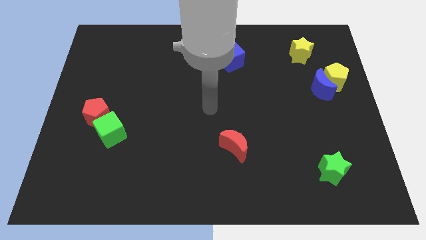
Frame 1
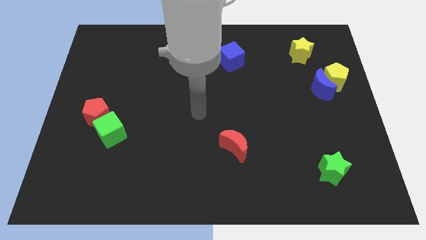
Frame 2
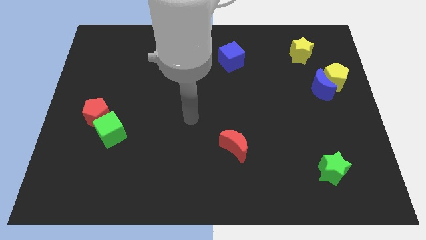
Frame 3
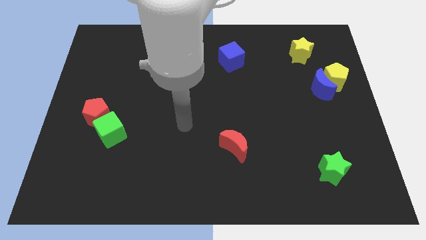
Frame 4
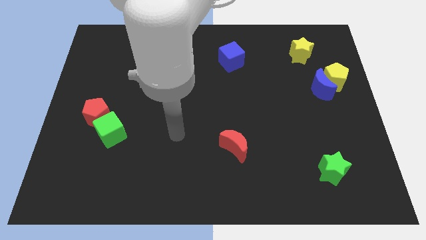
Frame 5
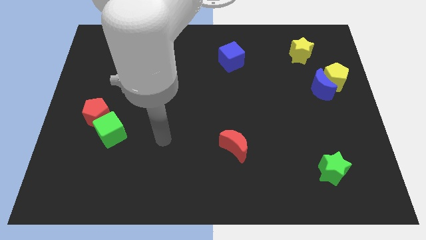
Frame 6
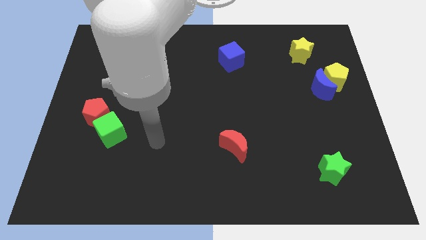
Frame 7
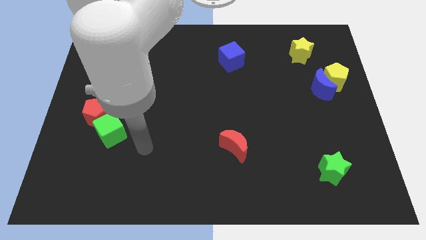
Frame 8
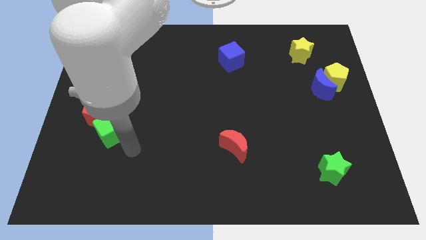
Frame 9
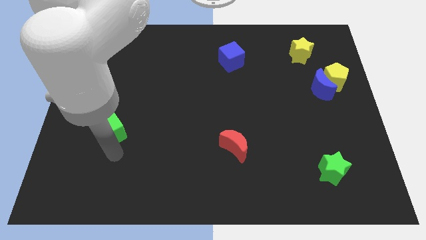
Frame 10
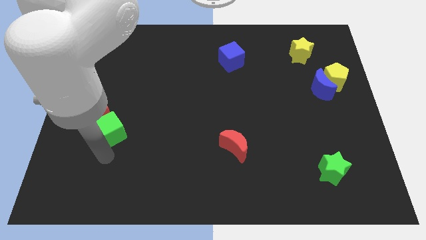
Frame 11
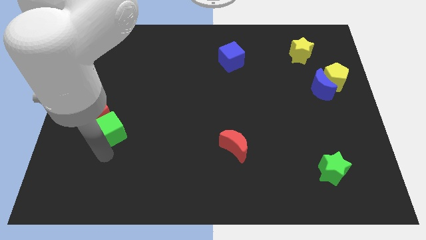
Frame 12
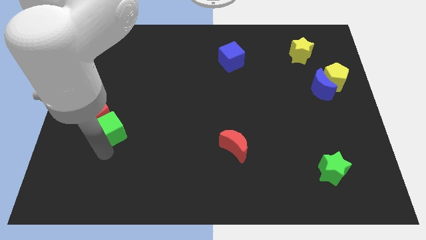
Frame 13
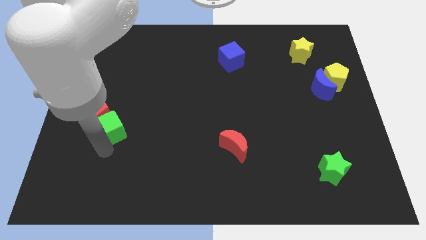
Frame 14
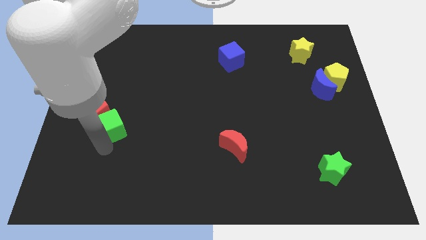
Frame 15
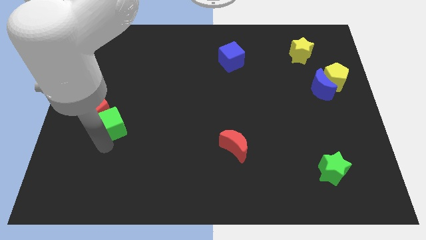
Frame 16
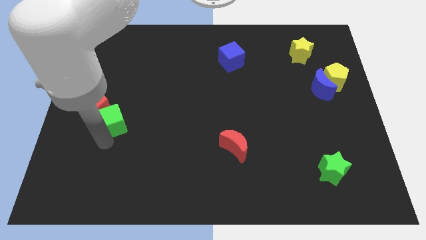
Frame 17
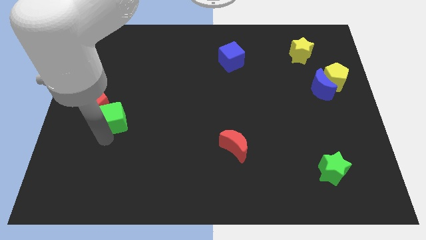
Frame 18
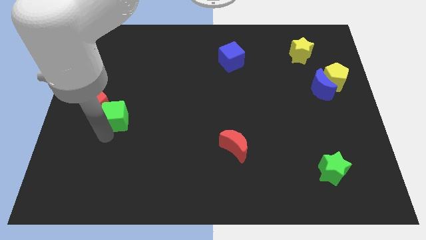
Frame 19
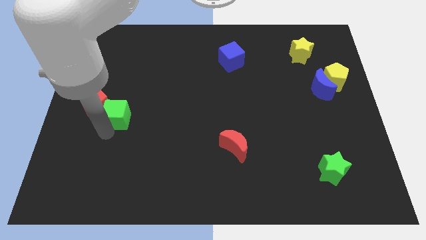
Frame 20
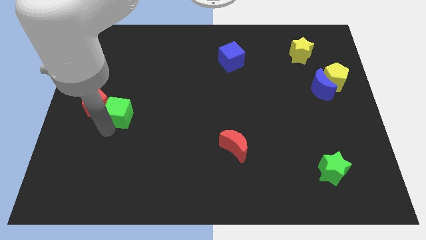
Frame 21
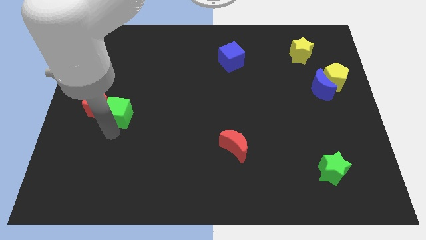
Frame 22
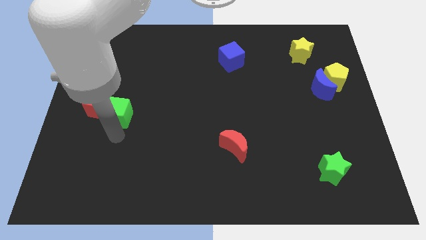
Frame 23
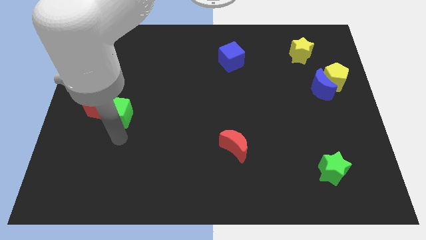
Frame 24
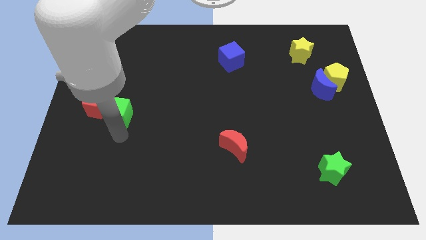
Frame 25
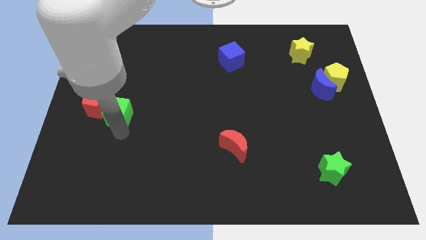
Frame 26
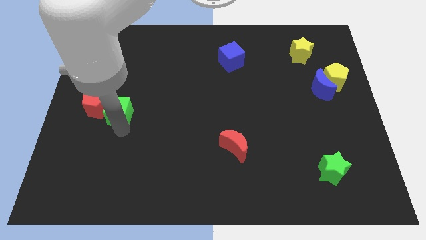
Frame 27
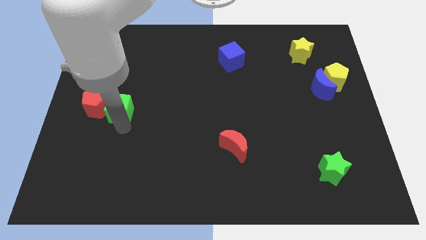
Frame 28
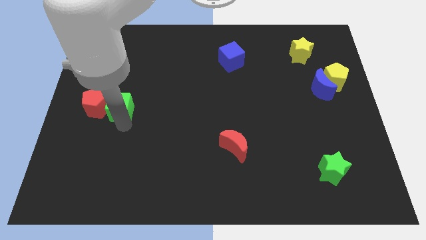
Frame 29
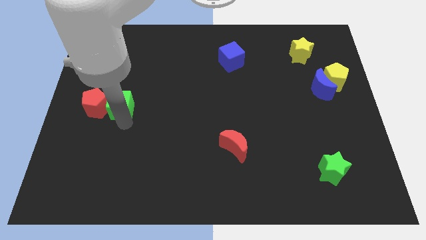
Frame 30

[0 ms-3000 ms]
slightly slide the green cube up

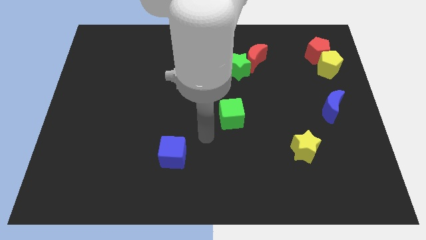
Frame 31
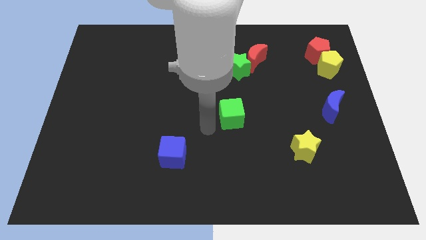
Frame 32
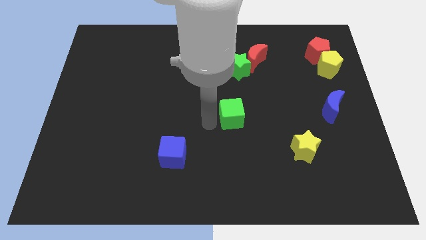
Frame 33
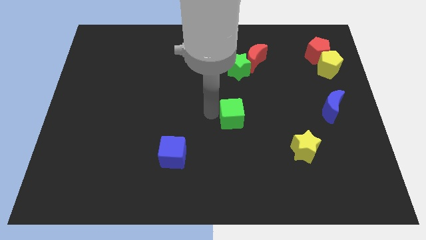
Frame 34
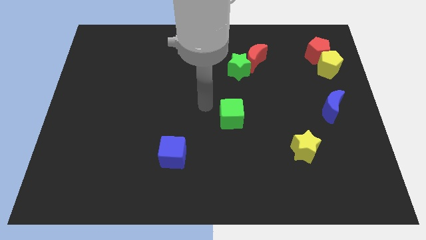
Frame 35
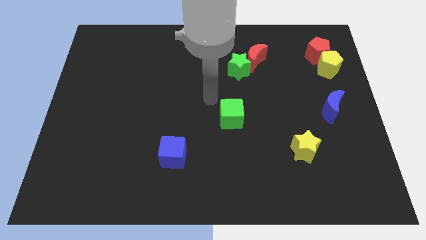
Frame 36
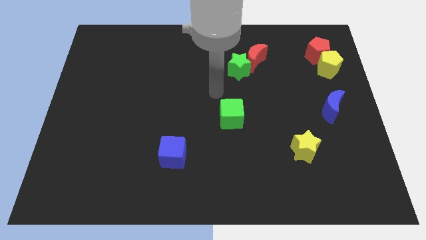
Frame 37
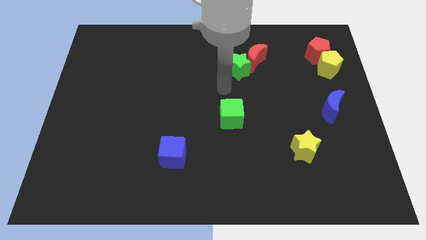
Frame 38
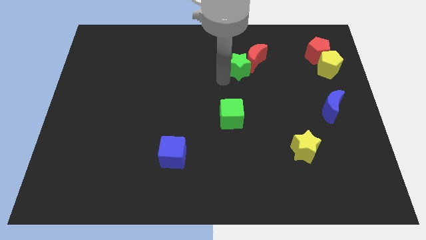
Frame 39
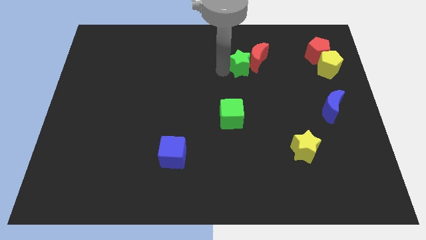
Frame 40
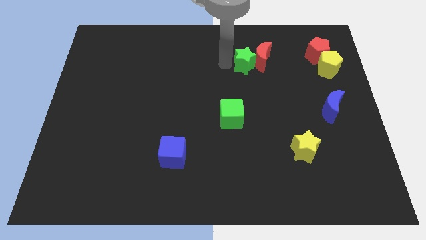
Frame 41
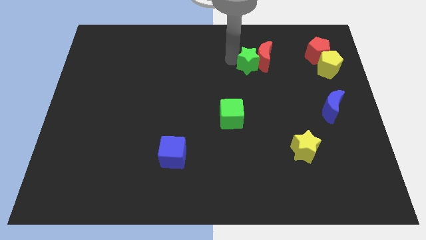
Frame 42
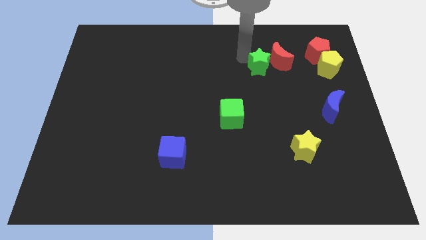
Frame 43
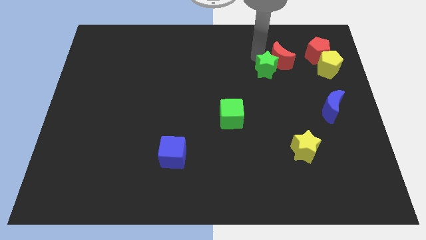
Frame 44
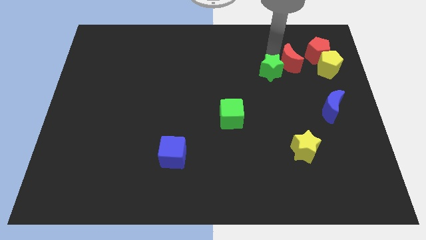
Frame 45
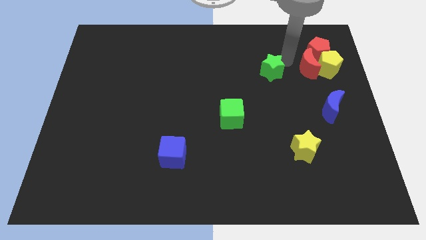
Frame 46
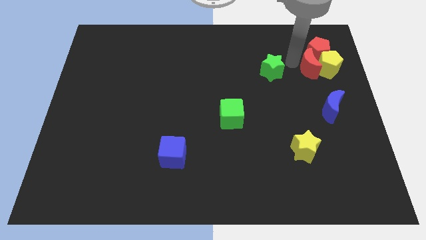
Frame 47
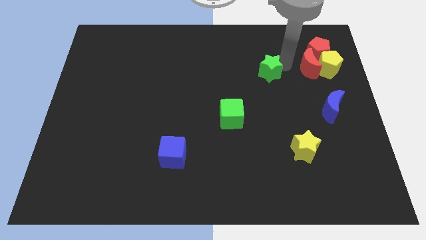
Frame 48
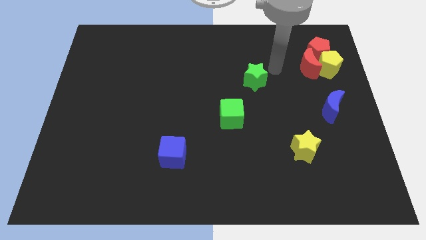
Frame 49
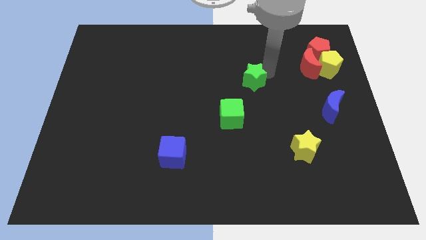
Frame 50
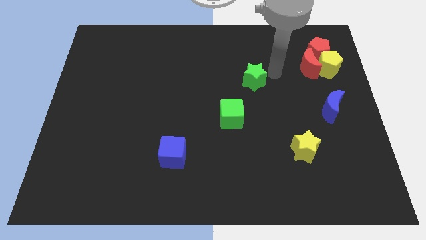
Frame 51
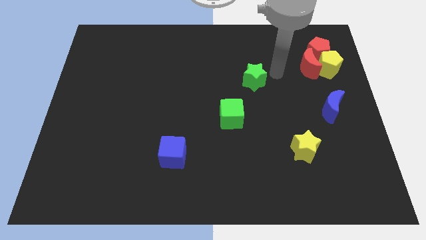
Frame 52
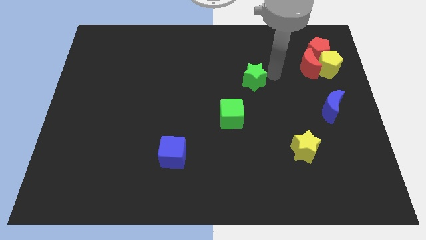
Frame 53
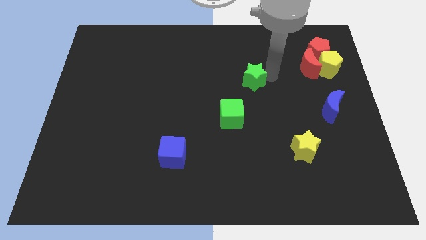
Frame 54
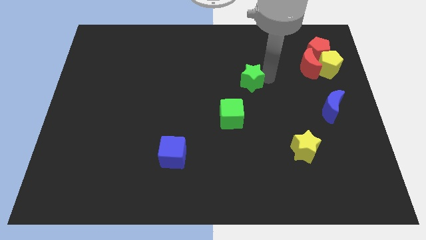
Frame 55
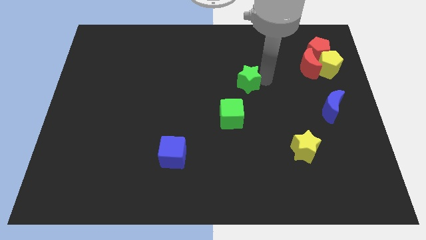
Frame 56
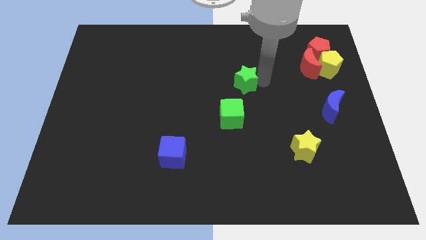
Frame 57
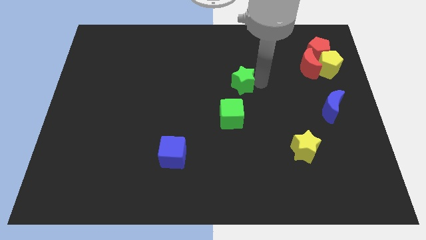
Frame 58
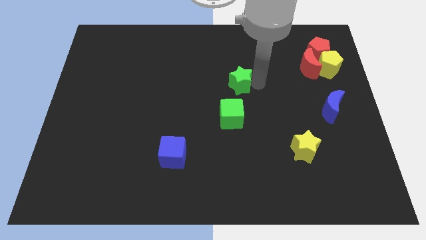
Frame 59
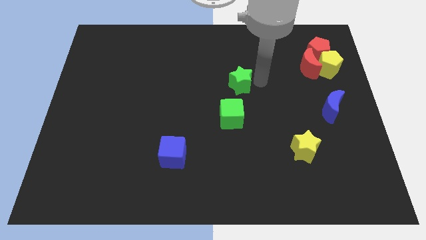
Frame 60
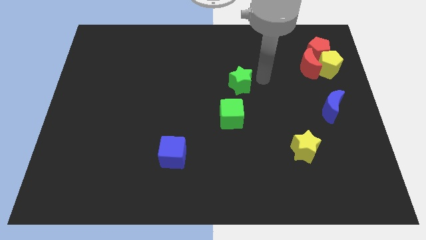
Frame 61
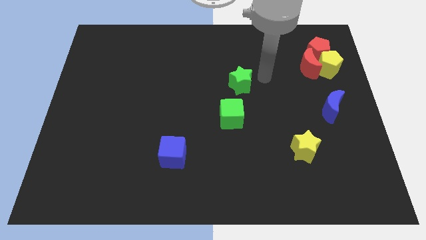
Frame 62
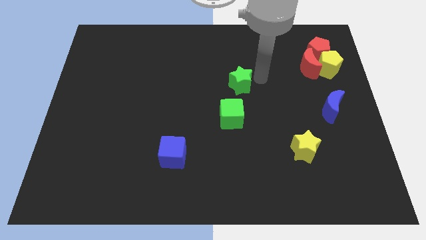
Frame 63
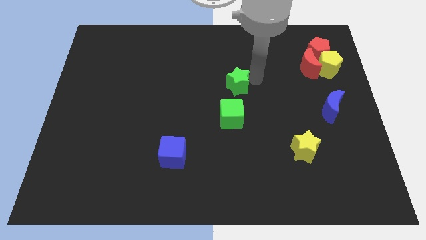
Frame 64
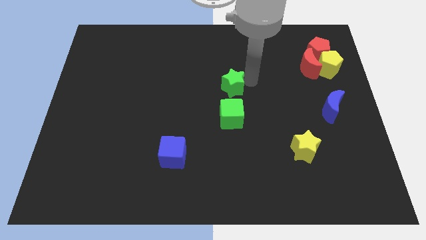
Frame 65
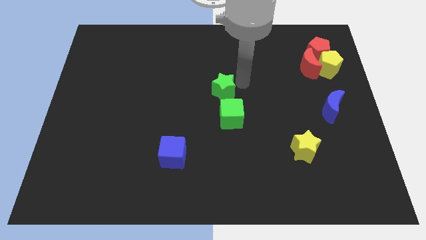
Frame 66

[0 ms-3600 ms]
push the green star diagonally down and left a little bit

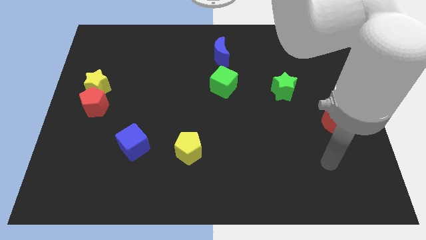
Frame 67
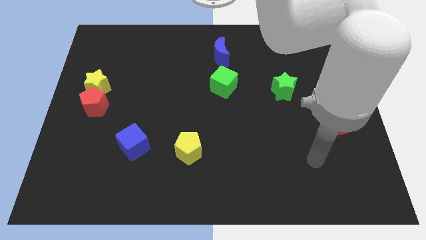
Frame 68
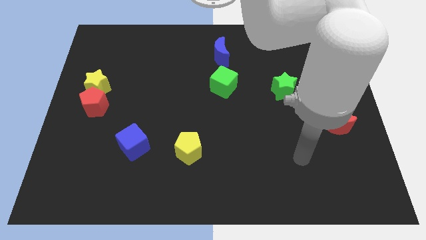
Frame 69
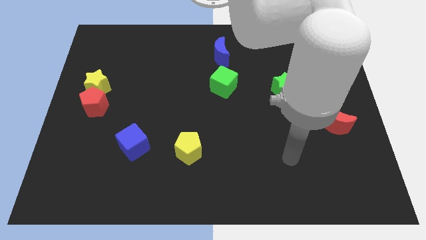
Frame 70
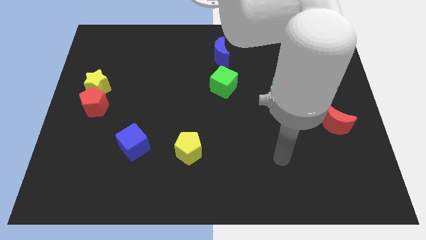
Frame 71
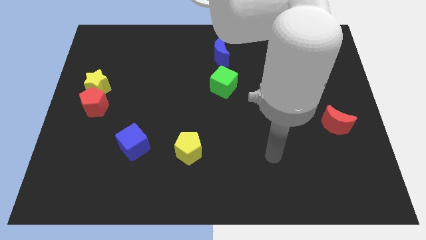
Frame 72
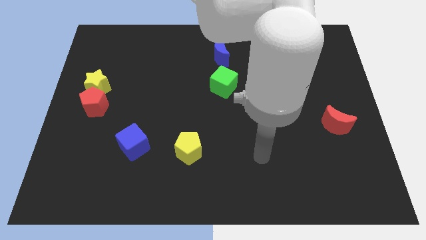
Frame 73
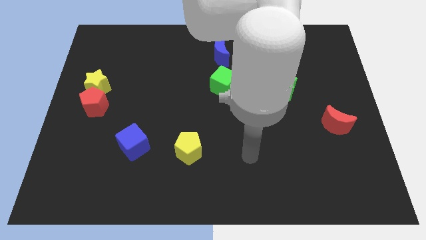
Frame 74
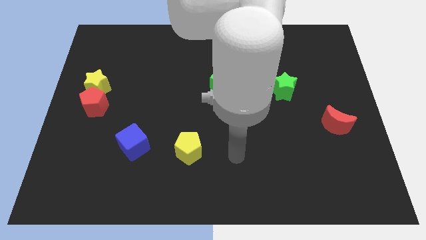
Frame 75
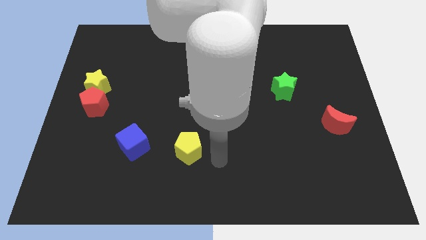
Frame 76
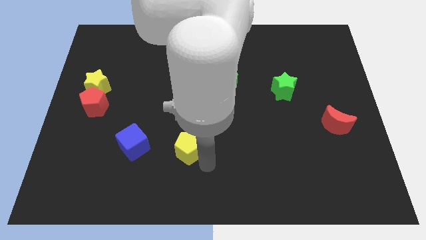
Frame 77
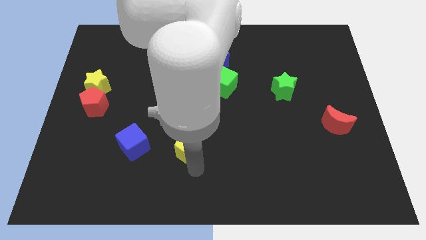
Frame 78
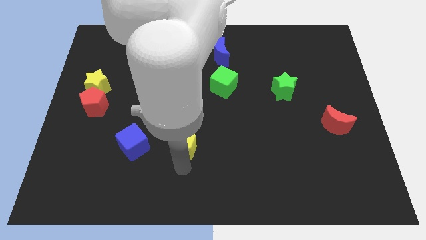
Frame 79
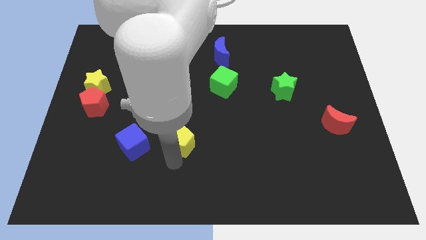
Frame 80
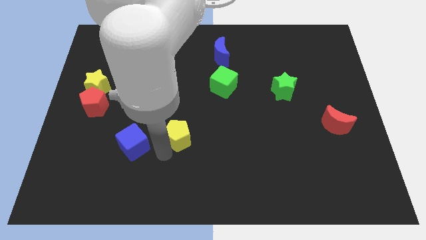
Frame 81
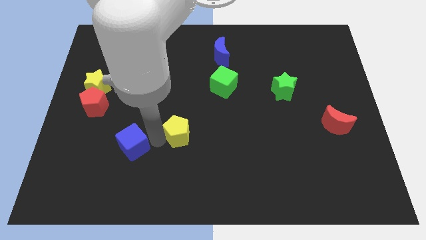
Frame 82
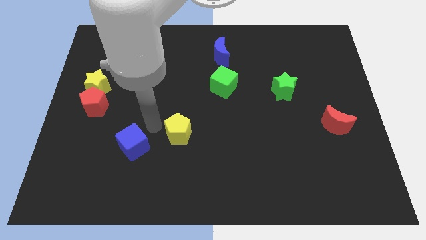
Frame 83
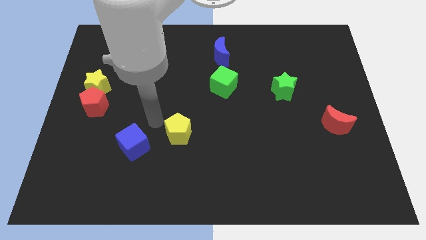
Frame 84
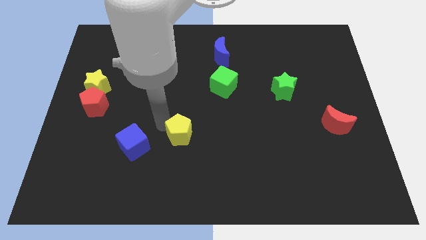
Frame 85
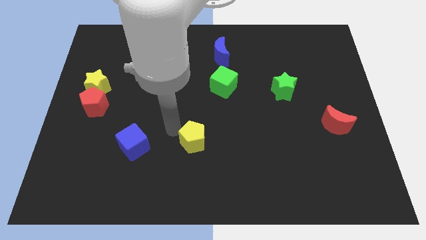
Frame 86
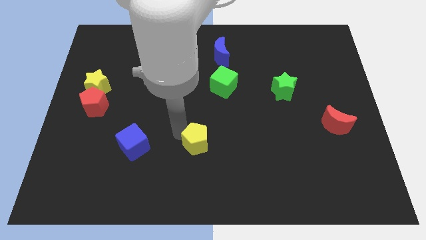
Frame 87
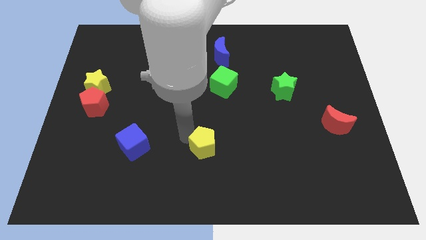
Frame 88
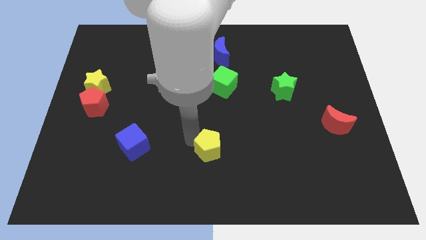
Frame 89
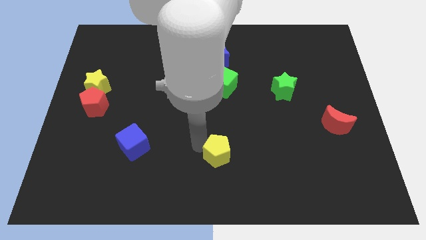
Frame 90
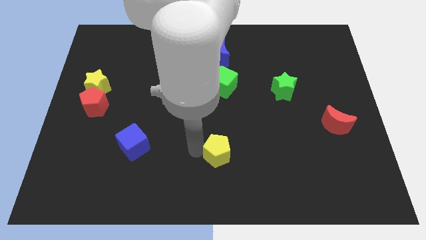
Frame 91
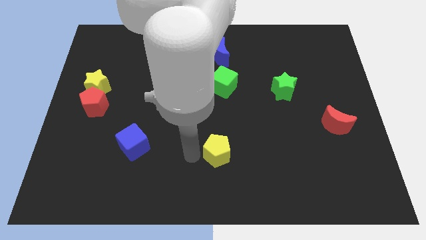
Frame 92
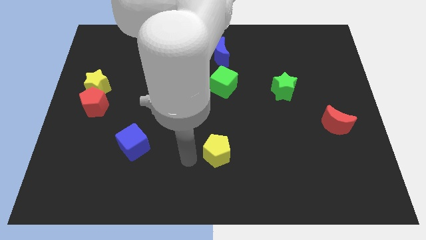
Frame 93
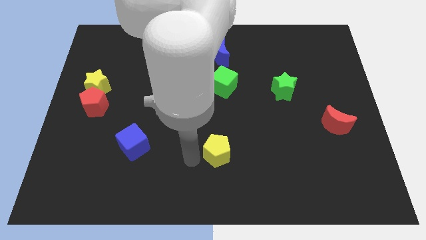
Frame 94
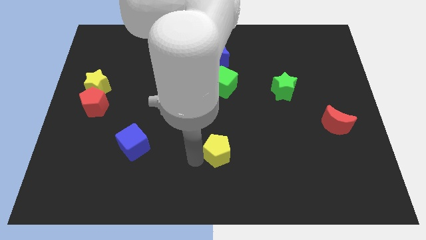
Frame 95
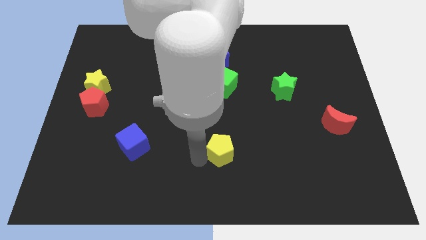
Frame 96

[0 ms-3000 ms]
push the yellow pentagon to the right a little bit
